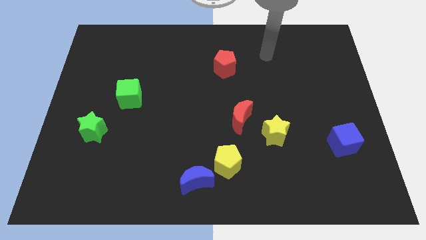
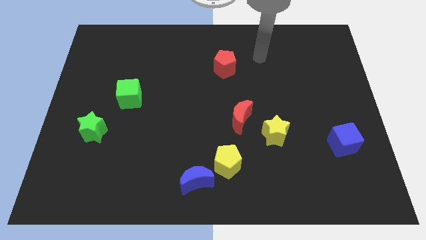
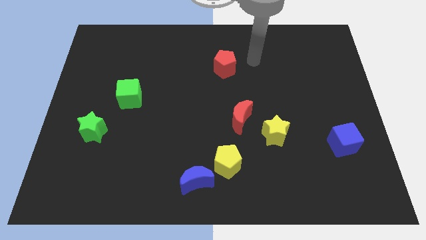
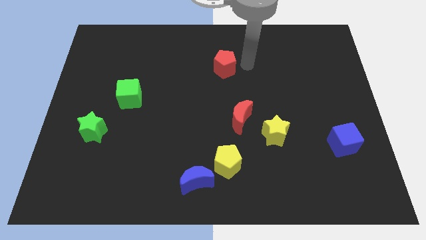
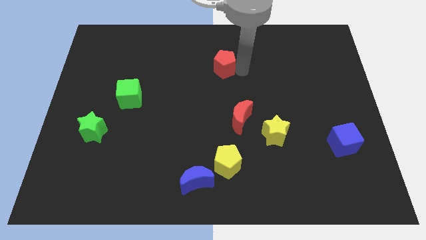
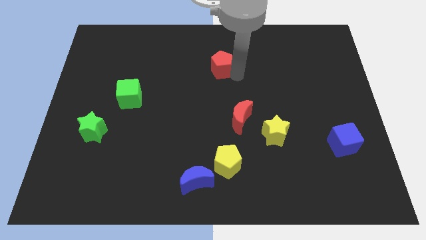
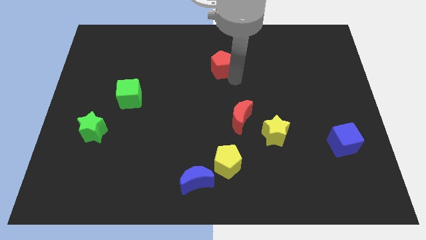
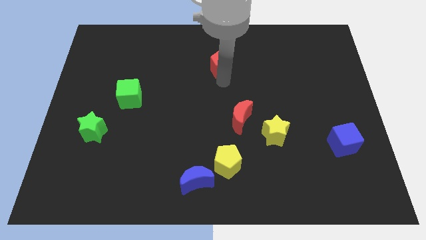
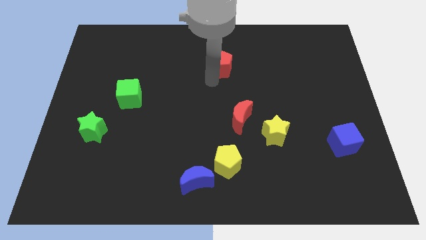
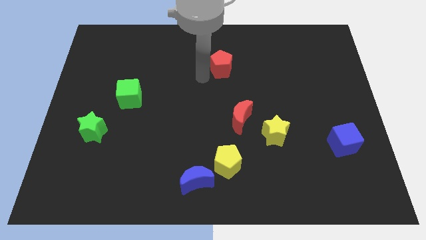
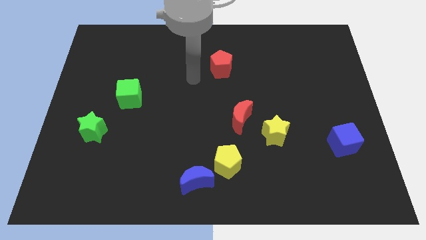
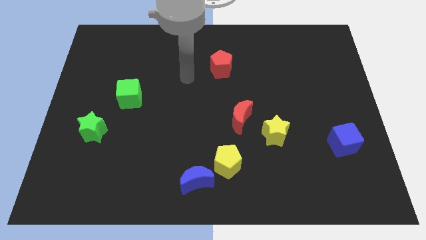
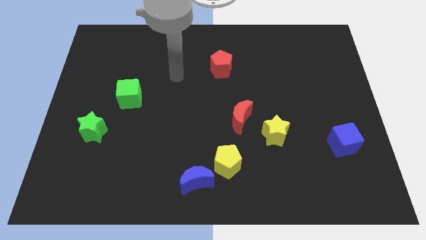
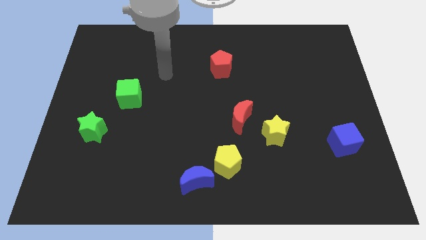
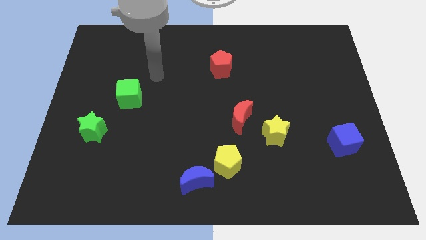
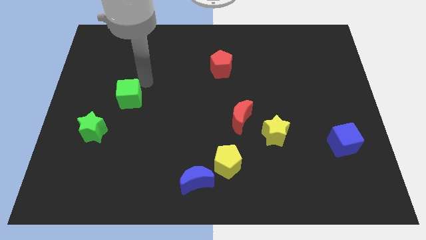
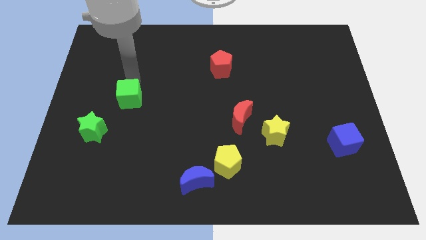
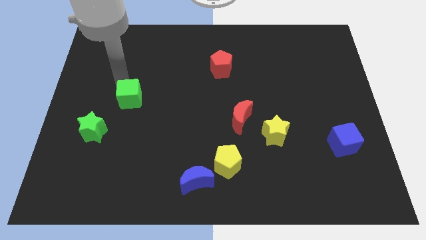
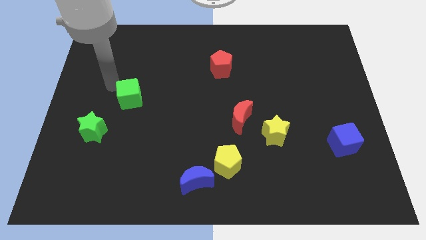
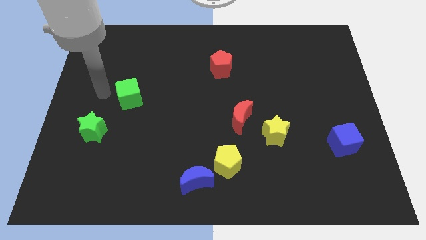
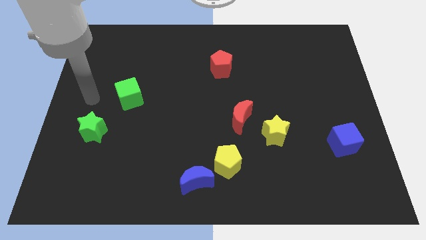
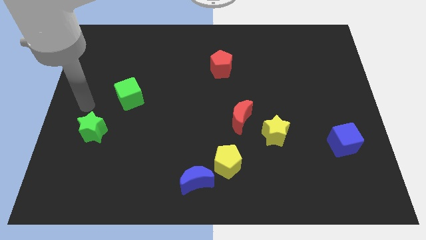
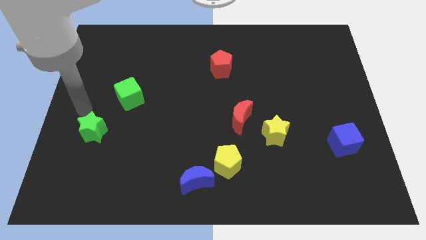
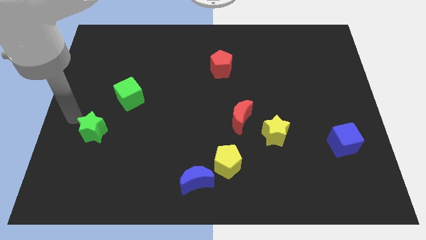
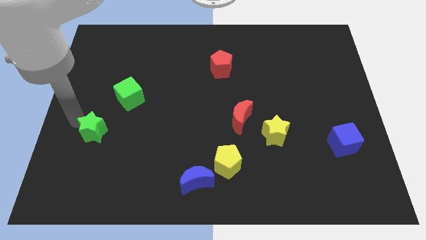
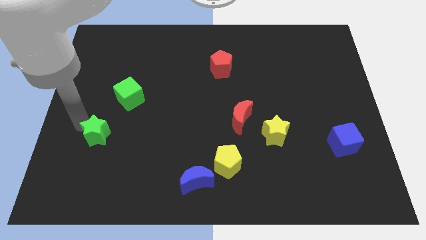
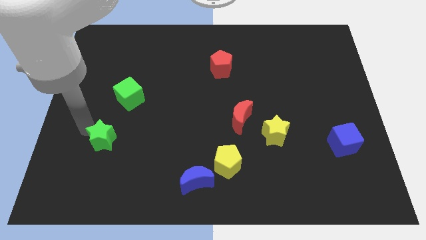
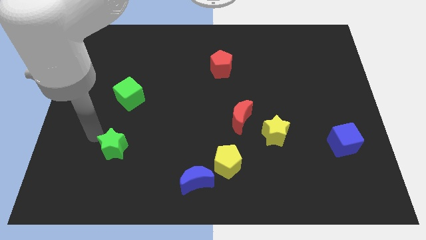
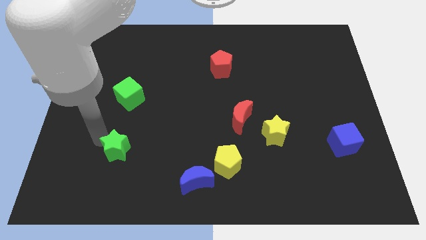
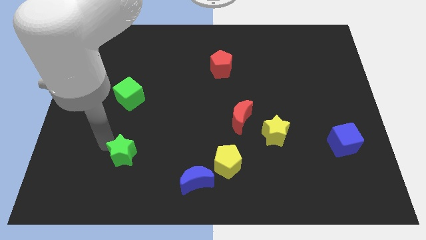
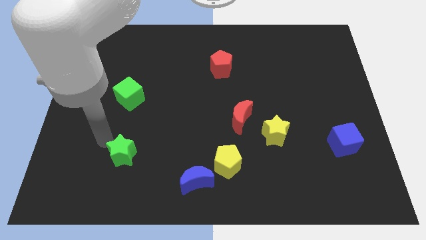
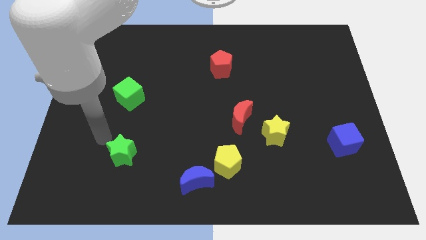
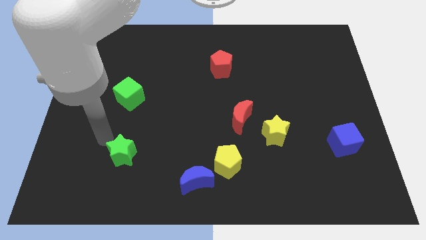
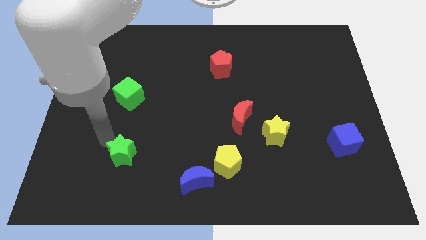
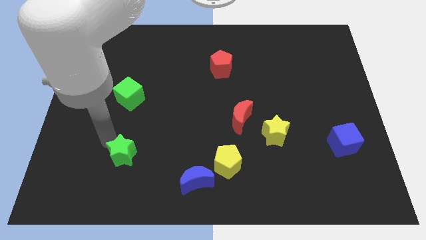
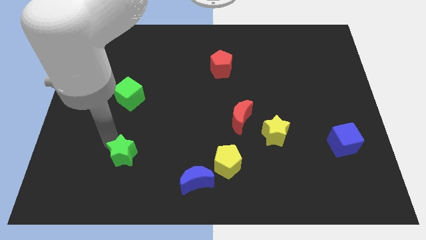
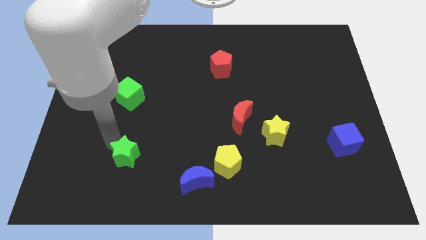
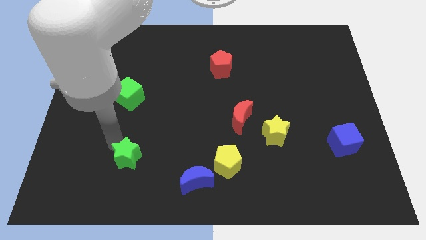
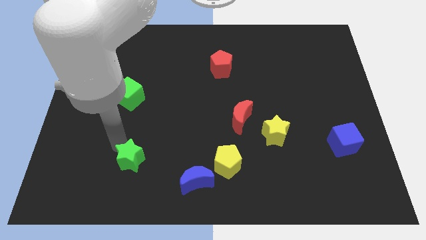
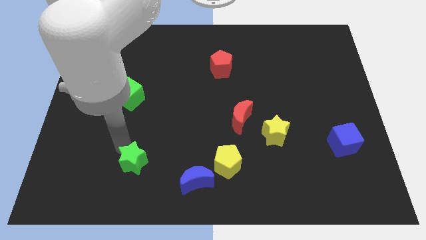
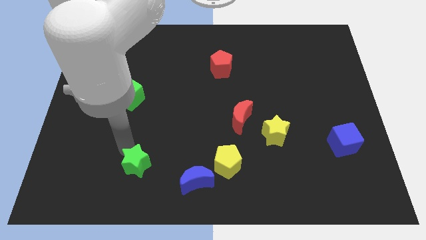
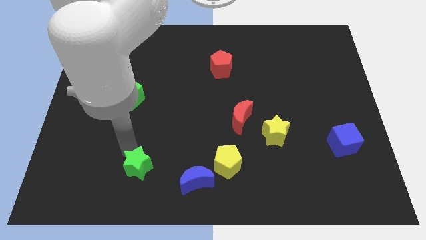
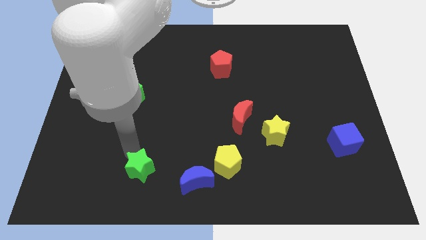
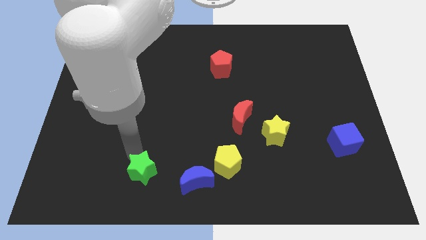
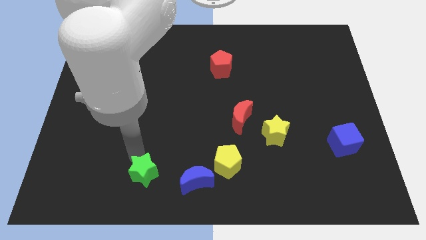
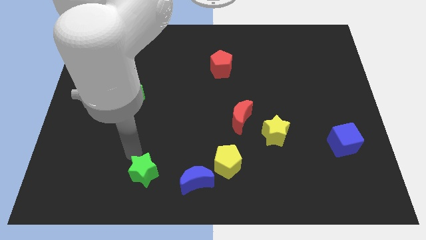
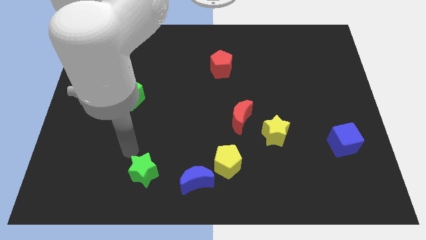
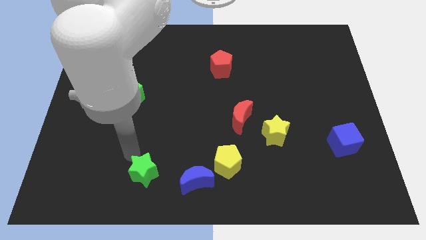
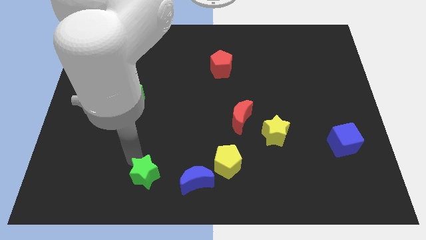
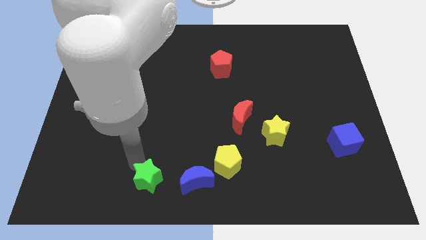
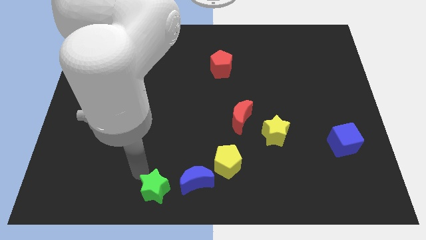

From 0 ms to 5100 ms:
push the green star to the bottom side

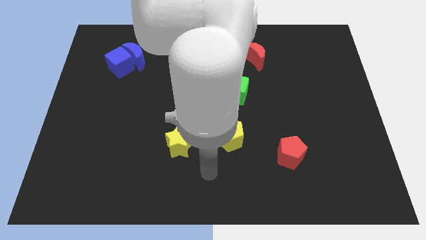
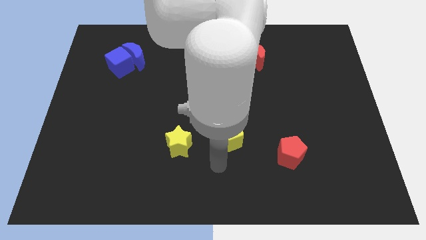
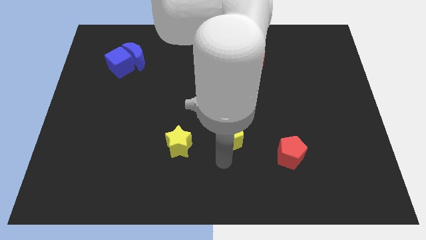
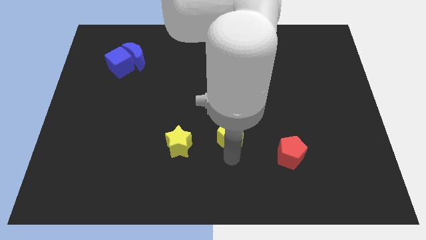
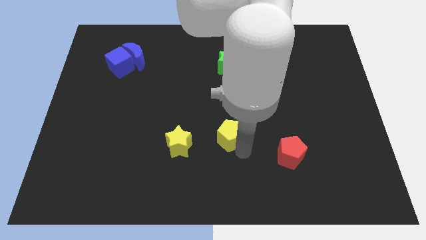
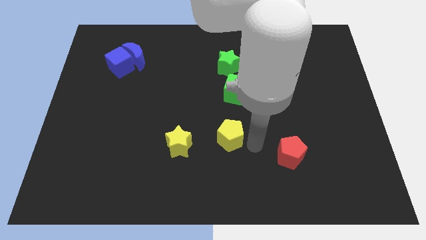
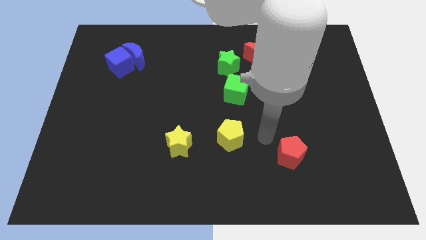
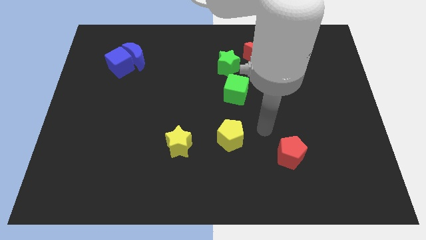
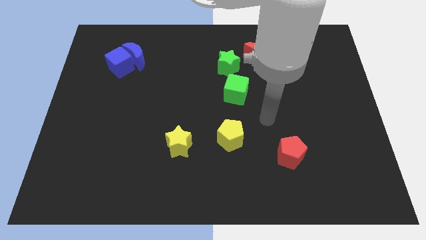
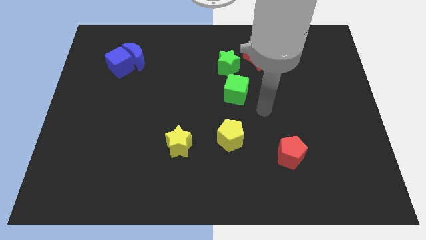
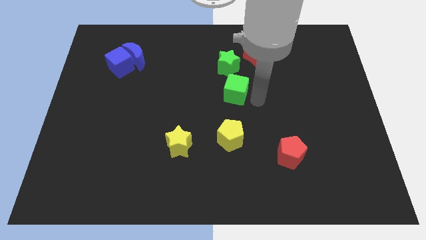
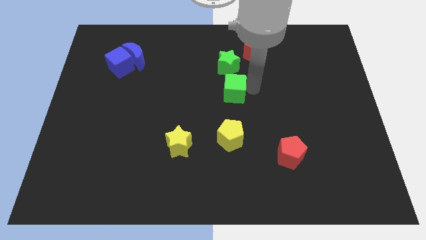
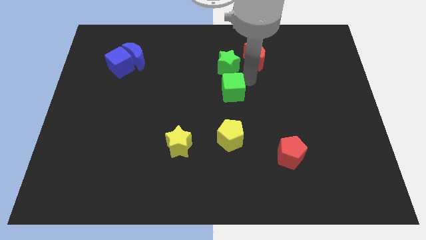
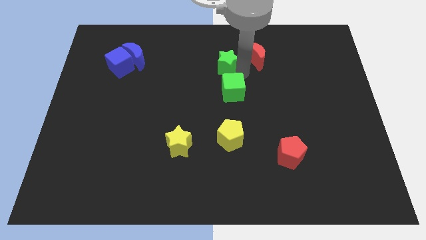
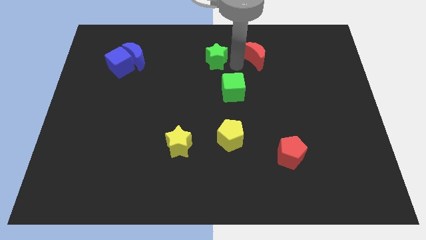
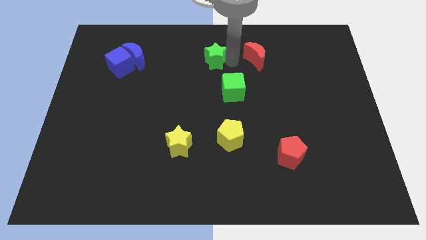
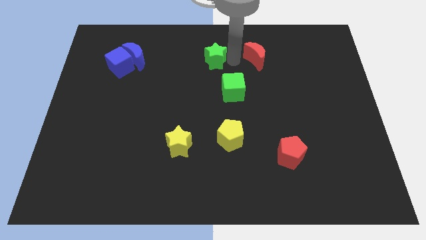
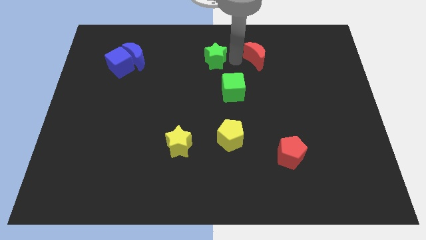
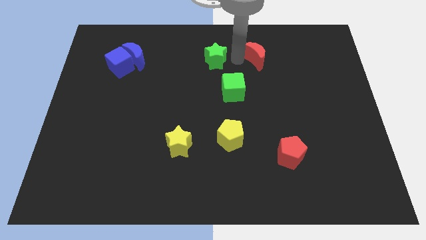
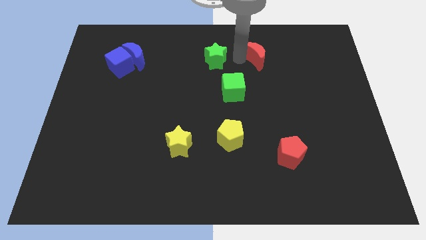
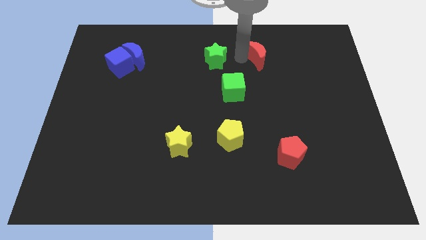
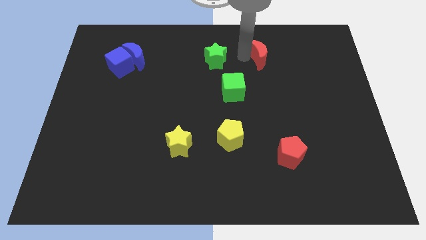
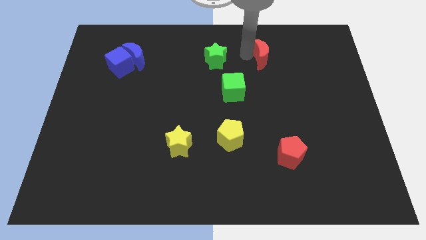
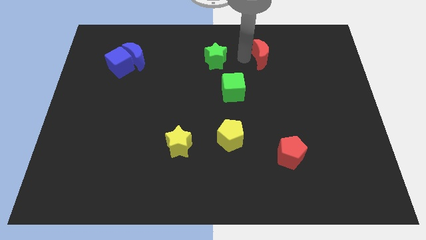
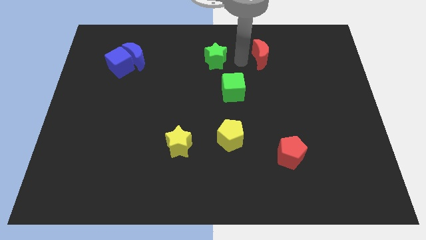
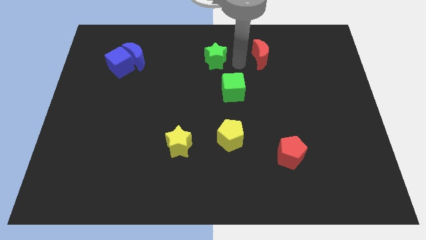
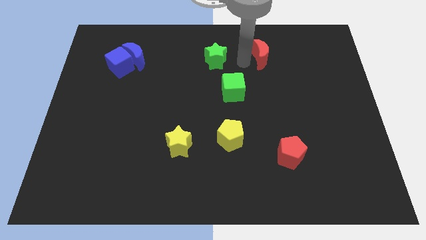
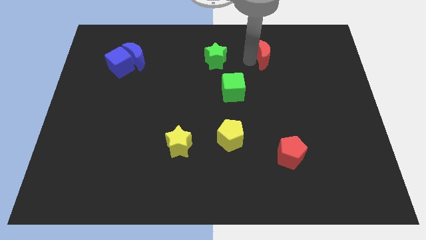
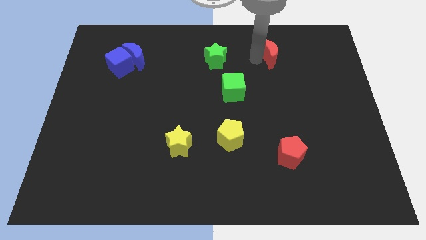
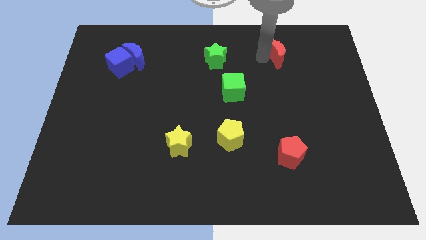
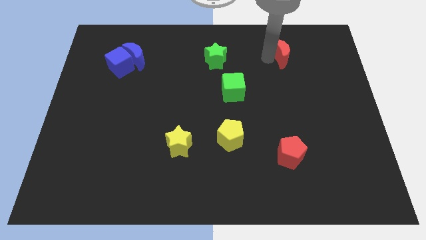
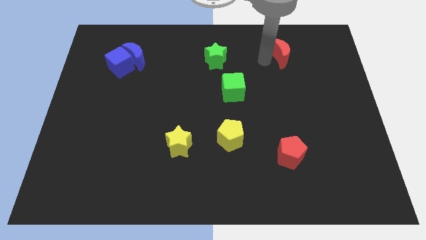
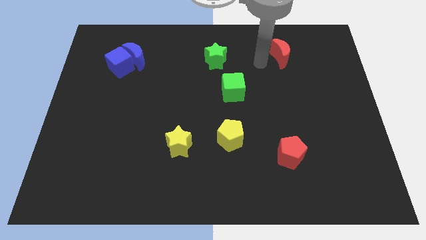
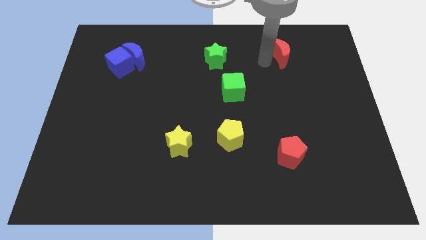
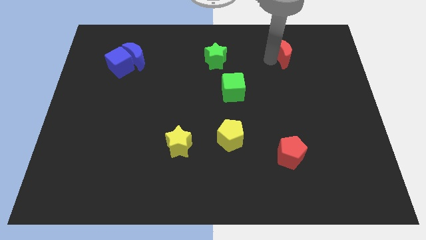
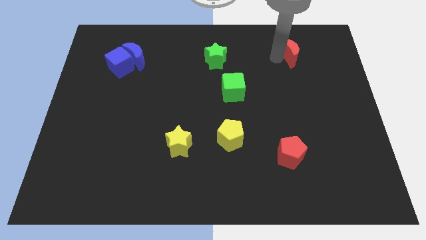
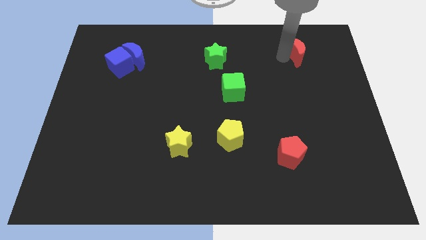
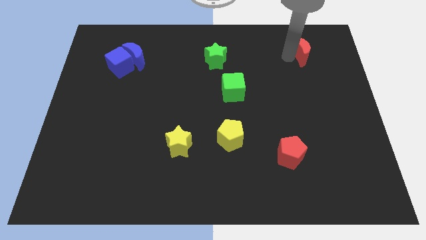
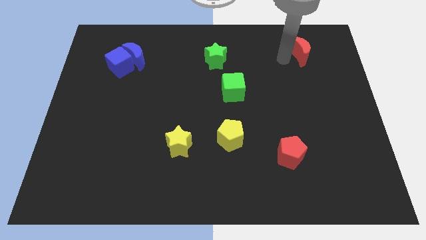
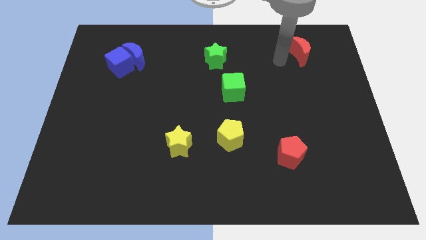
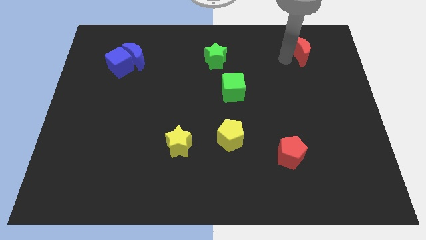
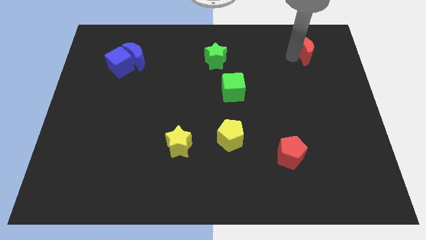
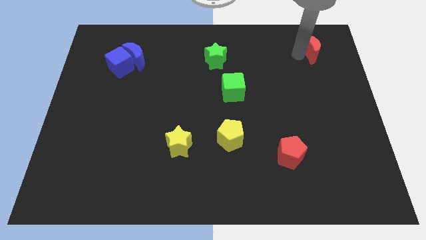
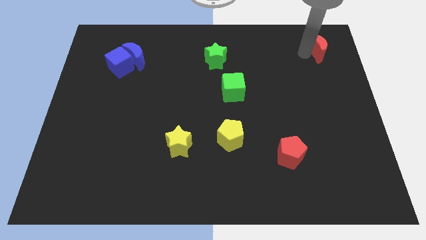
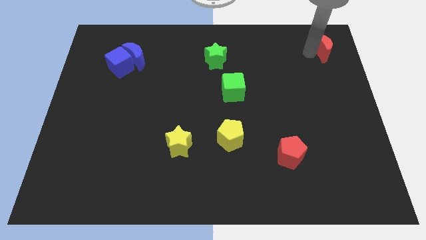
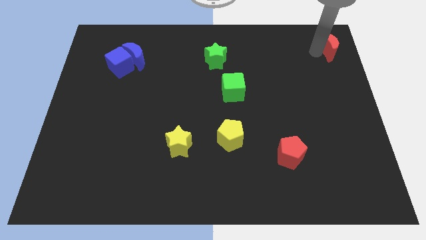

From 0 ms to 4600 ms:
push the red moon to the top right
